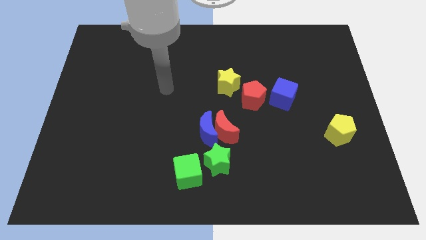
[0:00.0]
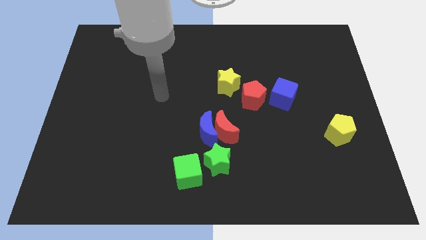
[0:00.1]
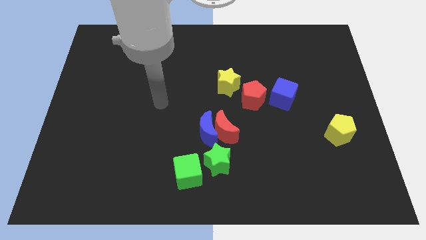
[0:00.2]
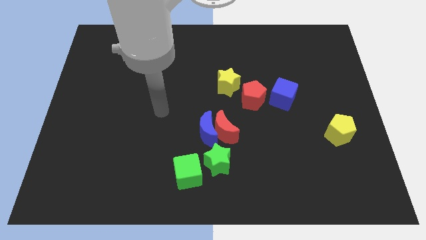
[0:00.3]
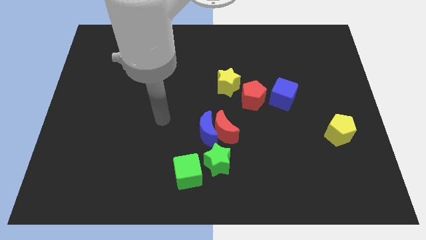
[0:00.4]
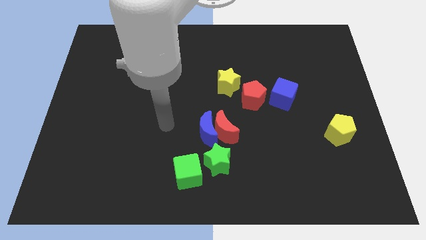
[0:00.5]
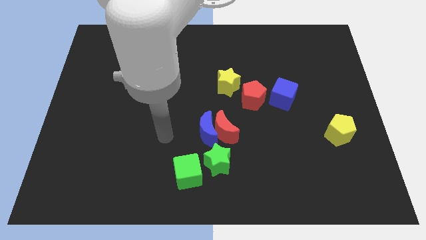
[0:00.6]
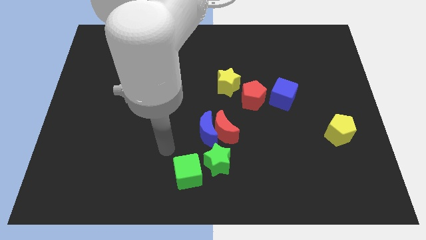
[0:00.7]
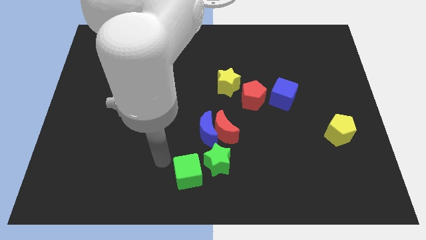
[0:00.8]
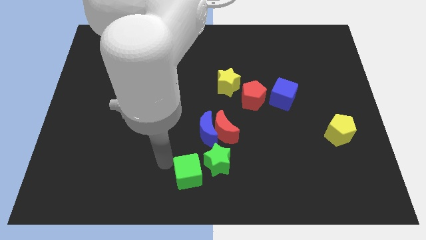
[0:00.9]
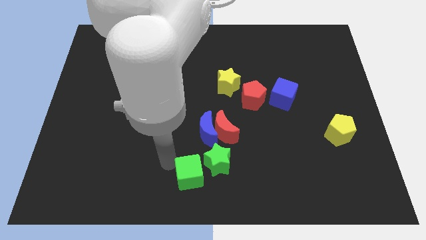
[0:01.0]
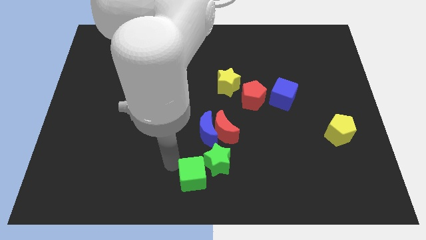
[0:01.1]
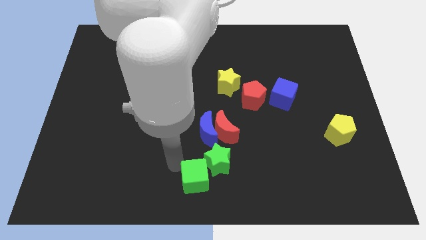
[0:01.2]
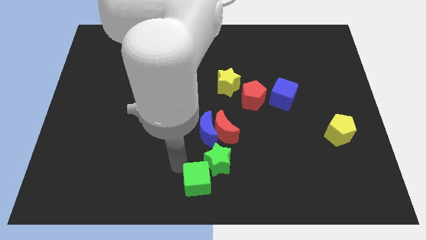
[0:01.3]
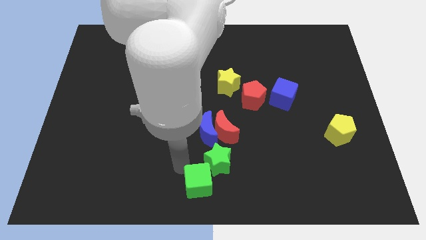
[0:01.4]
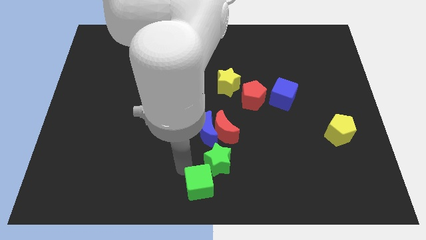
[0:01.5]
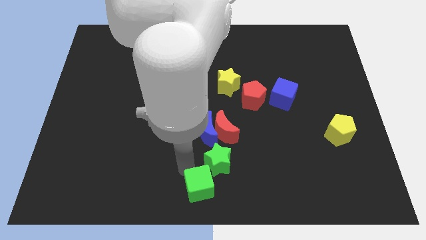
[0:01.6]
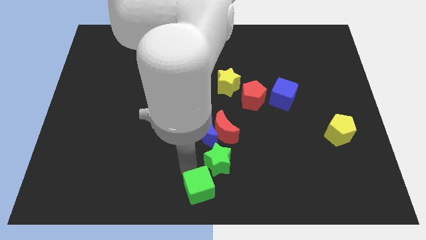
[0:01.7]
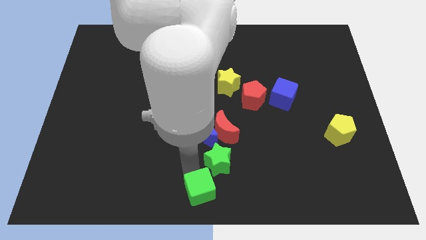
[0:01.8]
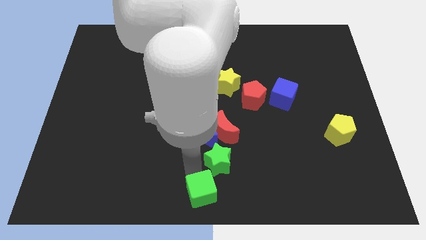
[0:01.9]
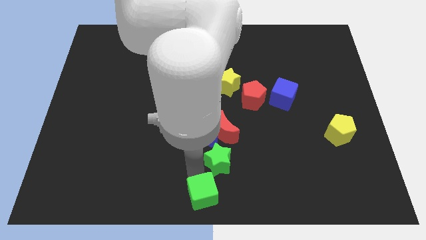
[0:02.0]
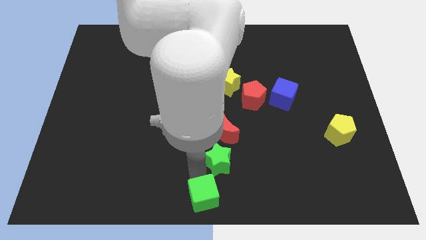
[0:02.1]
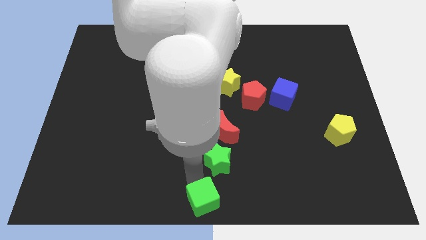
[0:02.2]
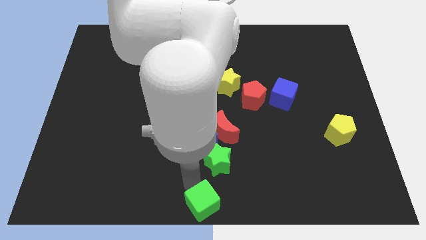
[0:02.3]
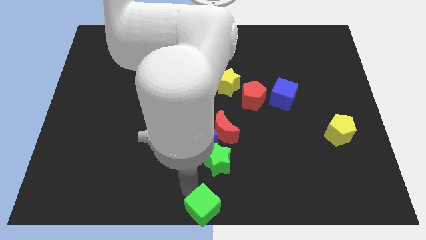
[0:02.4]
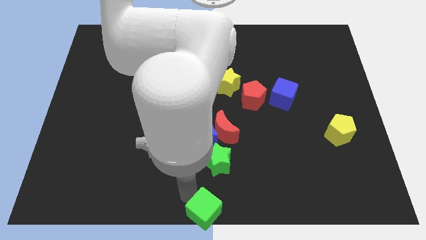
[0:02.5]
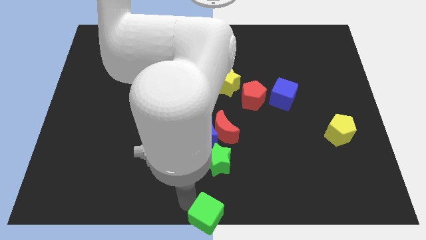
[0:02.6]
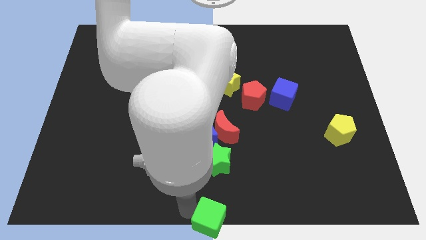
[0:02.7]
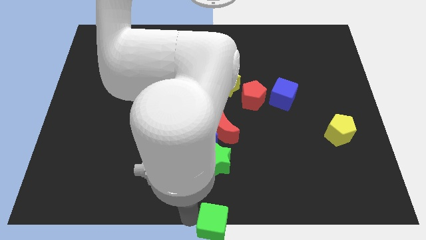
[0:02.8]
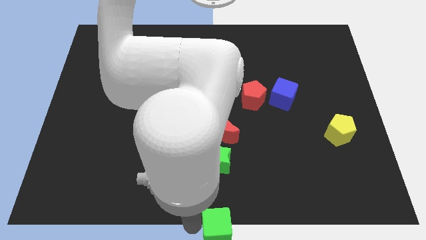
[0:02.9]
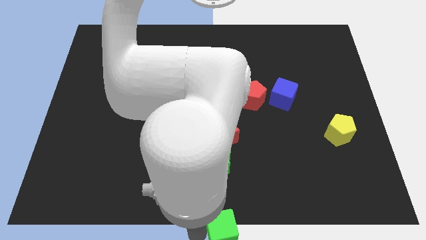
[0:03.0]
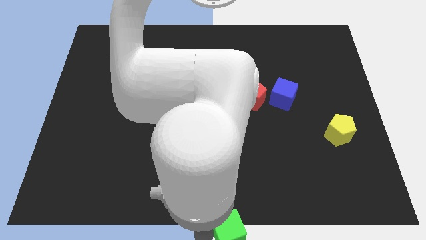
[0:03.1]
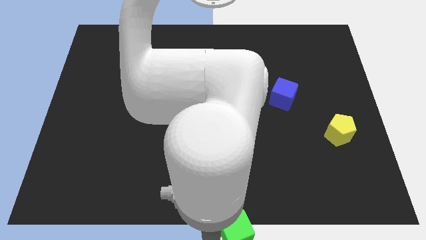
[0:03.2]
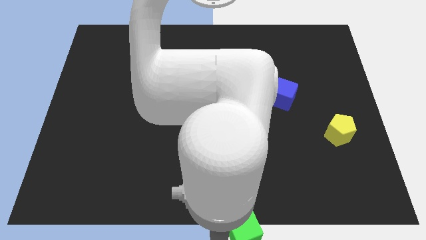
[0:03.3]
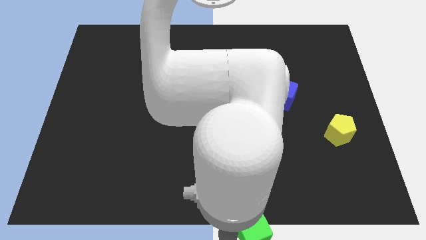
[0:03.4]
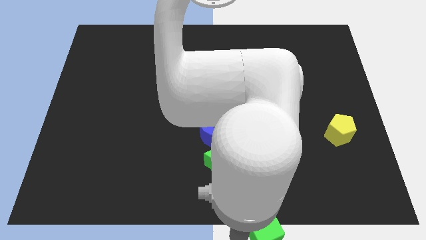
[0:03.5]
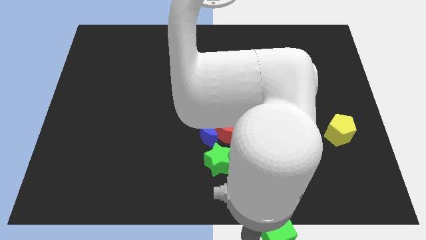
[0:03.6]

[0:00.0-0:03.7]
move the green cube to the right somewhat

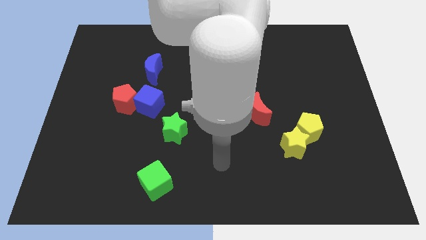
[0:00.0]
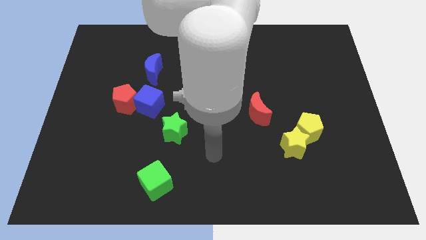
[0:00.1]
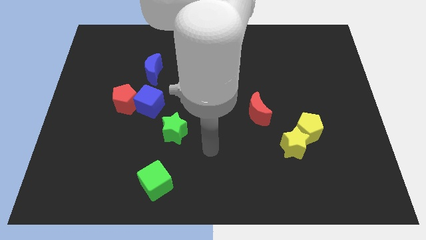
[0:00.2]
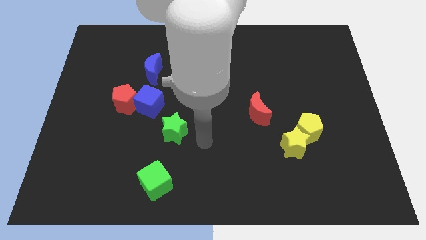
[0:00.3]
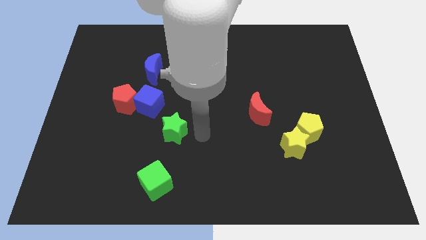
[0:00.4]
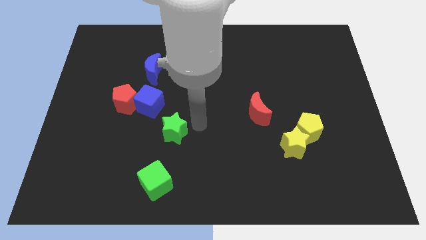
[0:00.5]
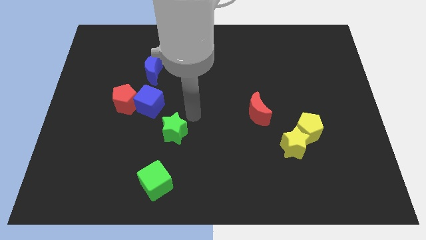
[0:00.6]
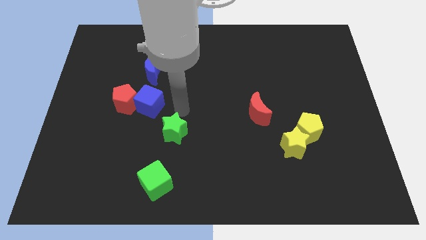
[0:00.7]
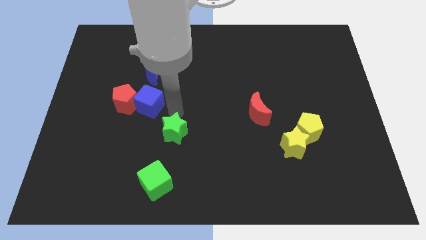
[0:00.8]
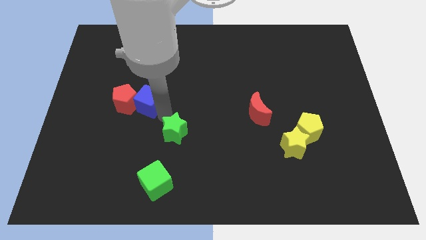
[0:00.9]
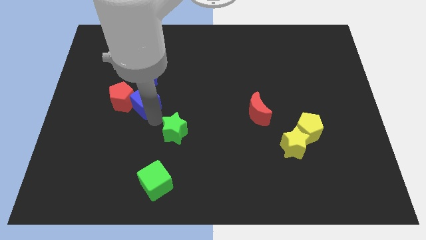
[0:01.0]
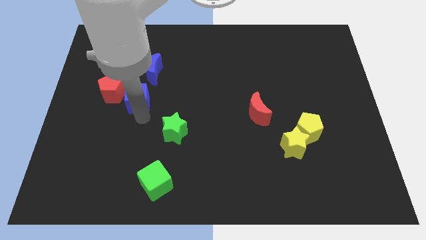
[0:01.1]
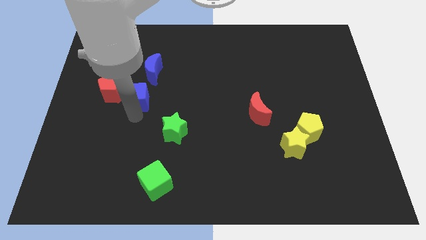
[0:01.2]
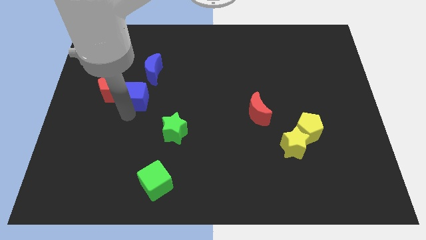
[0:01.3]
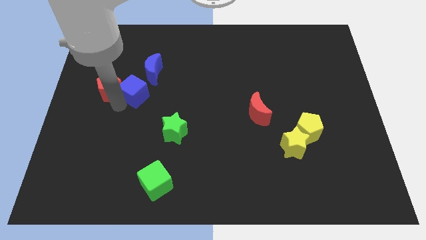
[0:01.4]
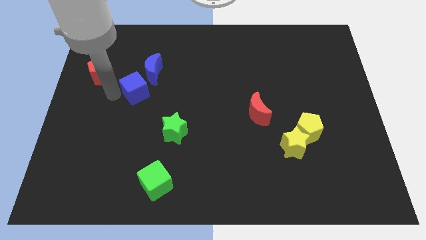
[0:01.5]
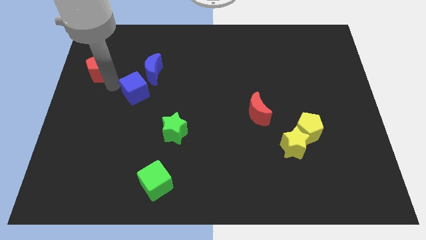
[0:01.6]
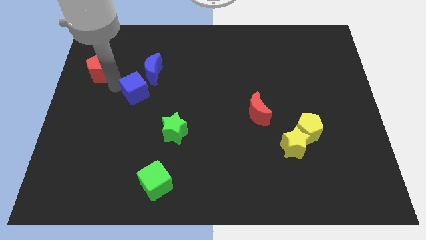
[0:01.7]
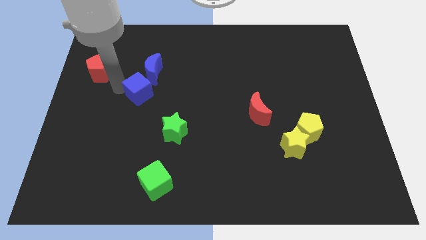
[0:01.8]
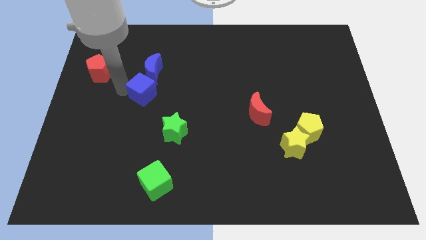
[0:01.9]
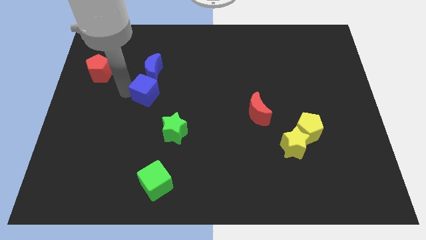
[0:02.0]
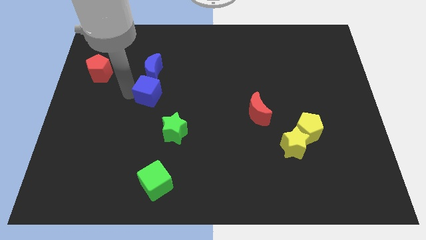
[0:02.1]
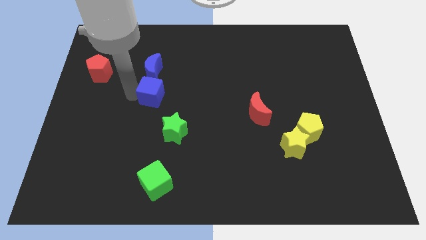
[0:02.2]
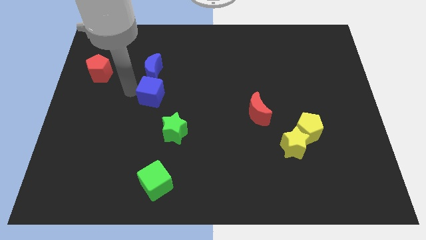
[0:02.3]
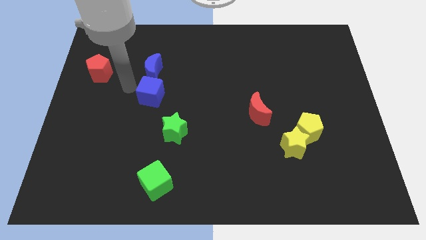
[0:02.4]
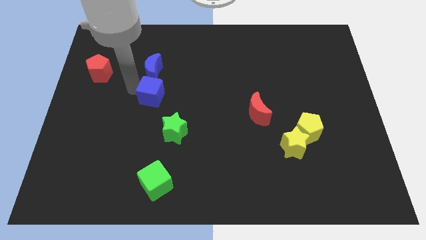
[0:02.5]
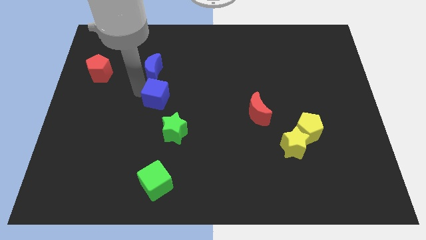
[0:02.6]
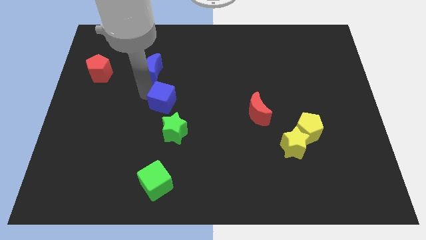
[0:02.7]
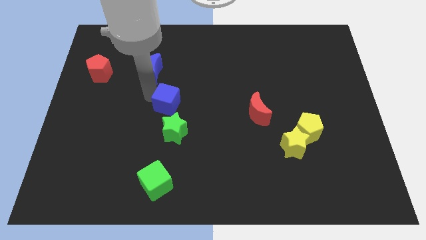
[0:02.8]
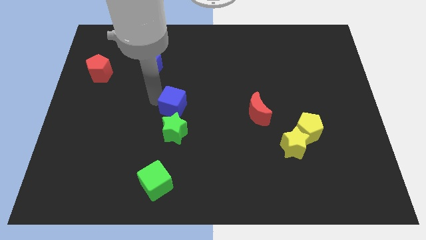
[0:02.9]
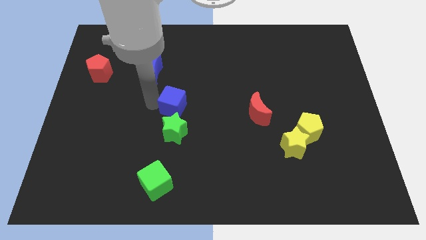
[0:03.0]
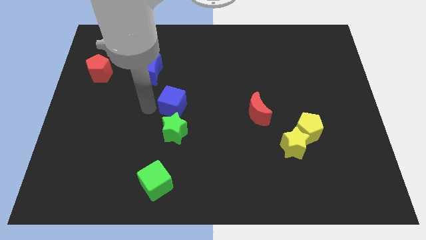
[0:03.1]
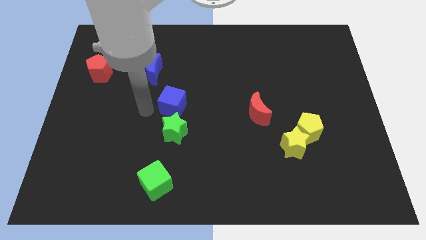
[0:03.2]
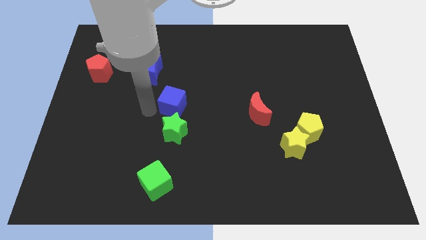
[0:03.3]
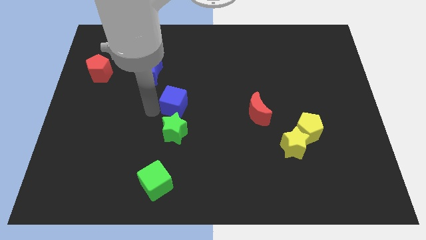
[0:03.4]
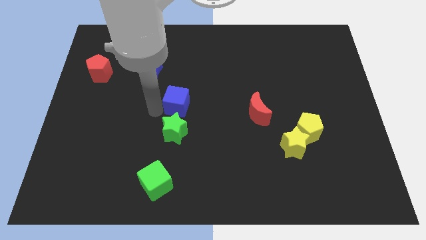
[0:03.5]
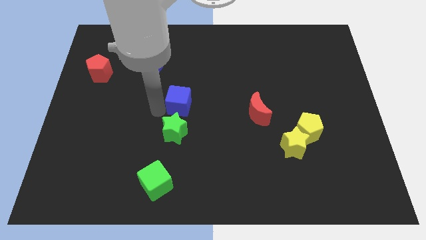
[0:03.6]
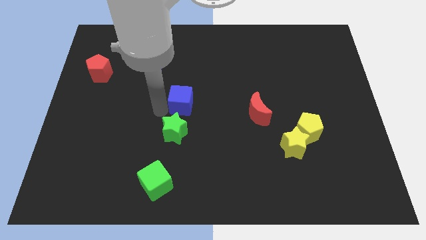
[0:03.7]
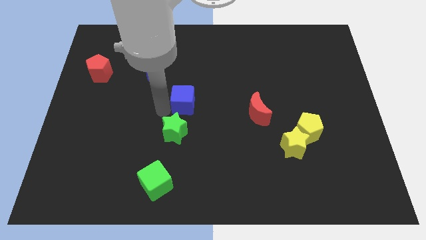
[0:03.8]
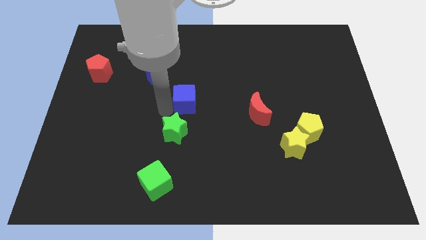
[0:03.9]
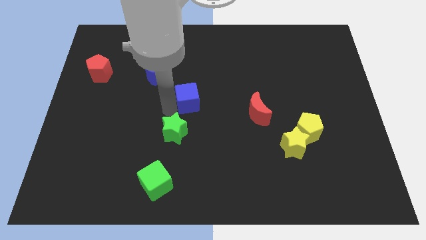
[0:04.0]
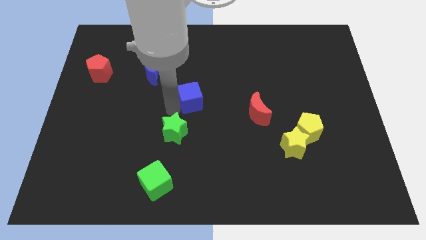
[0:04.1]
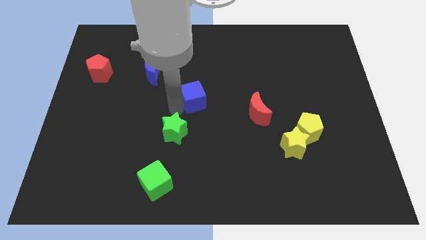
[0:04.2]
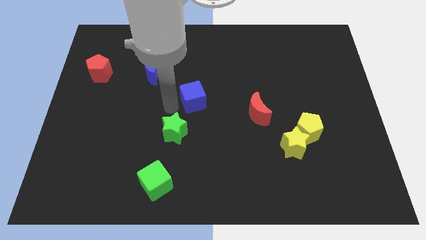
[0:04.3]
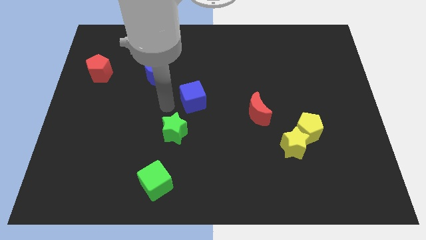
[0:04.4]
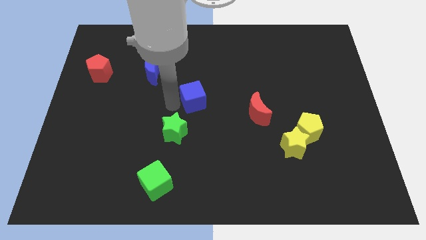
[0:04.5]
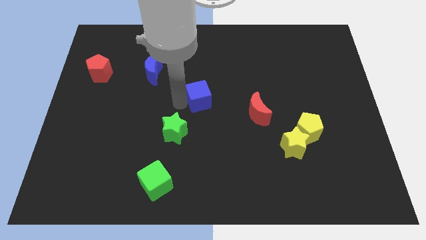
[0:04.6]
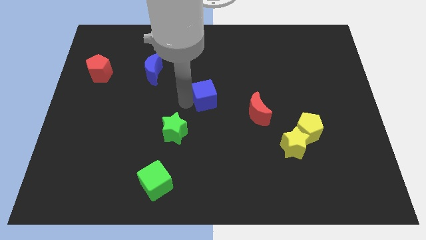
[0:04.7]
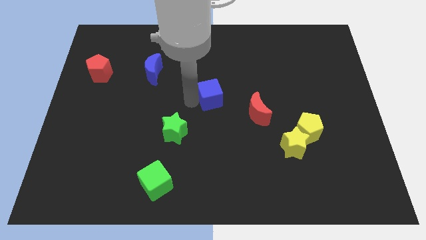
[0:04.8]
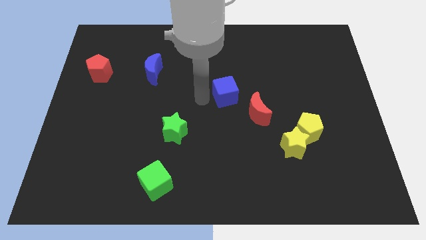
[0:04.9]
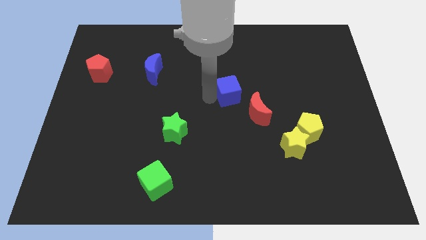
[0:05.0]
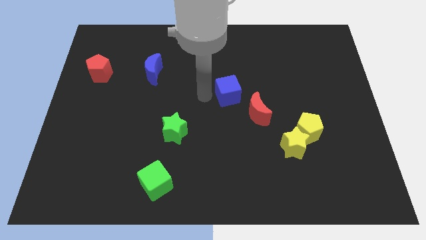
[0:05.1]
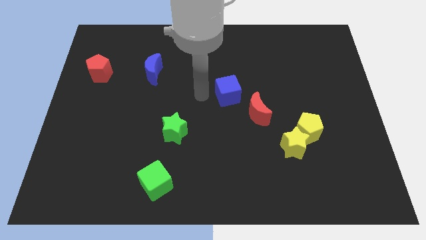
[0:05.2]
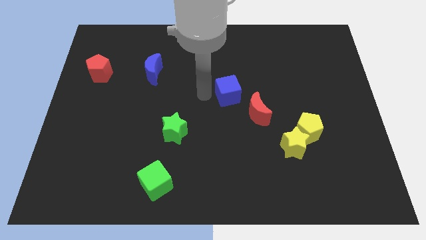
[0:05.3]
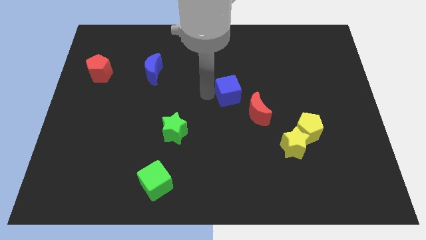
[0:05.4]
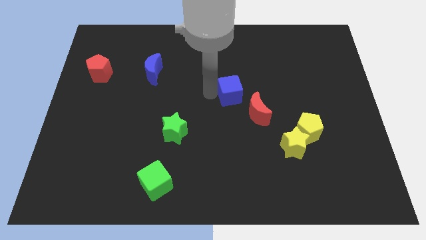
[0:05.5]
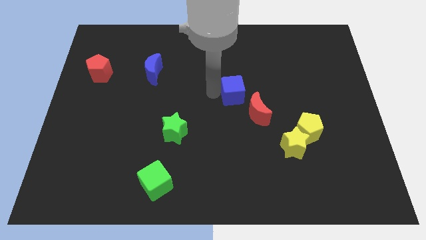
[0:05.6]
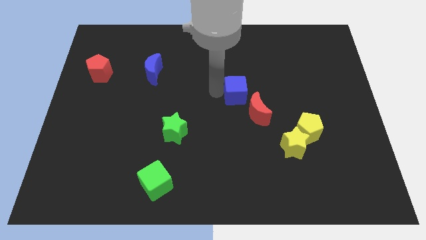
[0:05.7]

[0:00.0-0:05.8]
slide the blue cube to the right
